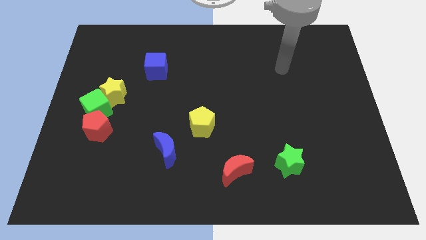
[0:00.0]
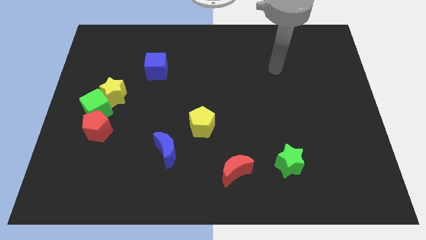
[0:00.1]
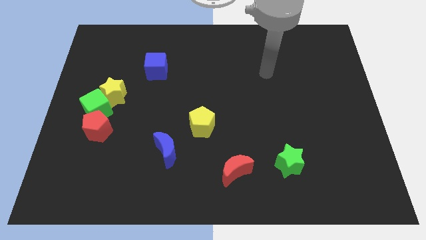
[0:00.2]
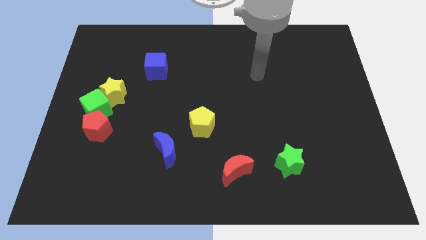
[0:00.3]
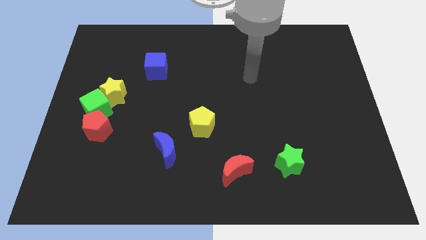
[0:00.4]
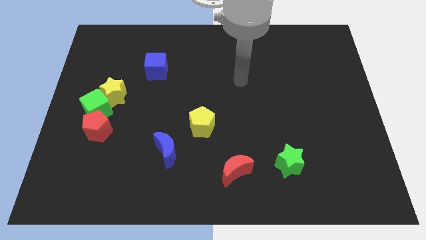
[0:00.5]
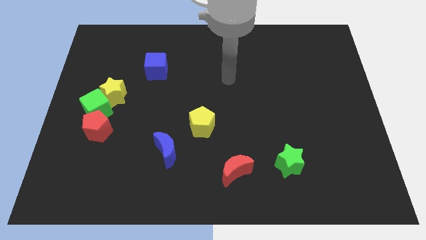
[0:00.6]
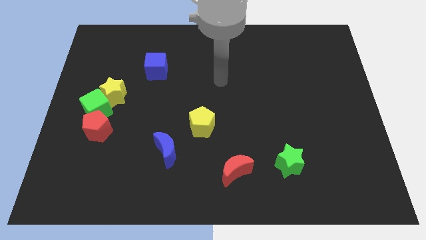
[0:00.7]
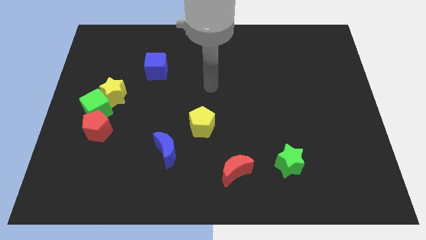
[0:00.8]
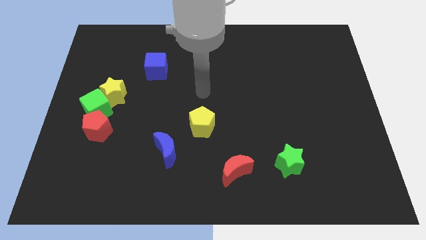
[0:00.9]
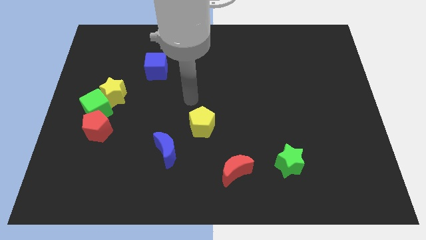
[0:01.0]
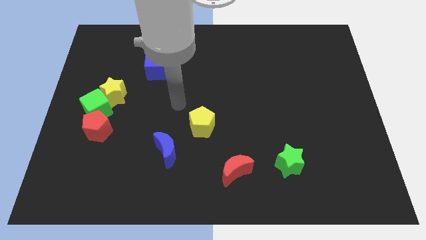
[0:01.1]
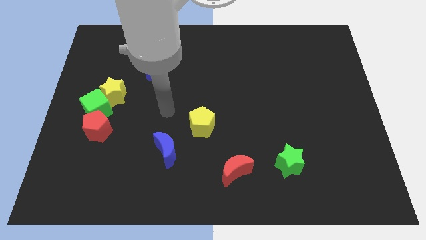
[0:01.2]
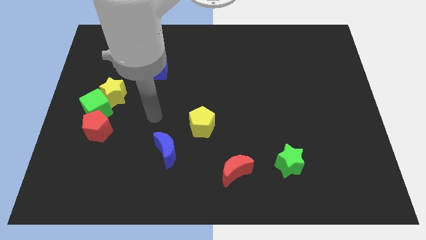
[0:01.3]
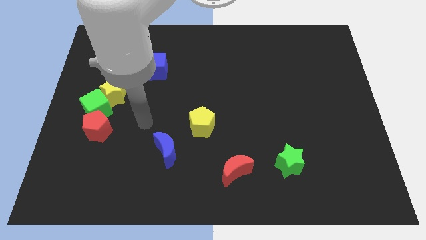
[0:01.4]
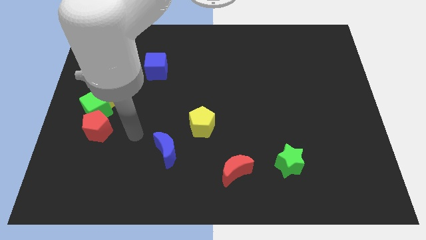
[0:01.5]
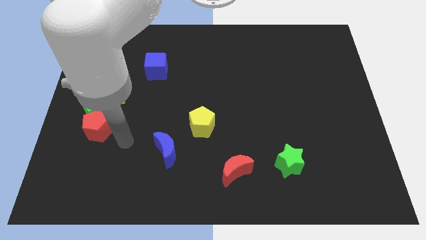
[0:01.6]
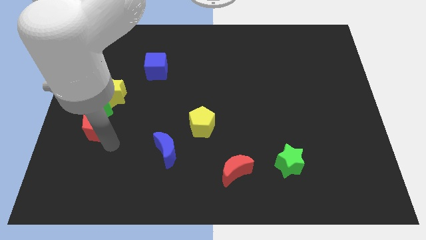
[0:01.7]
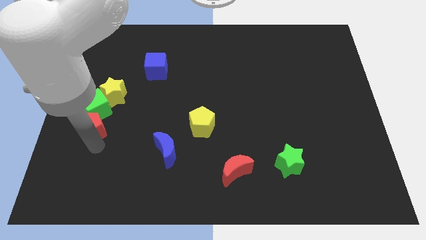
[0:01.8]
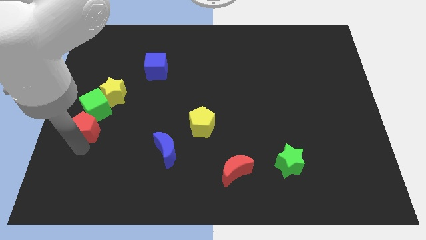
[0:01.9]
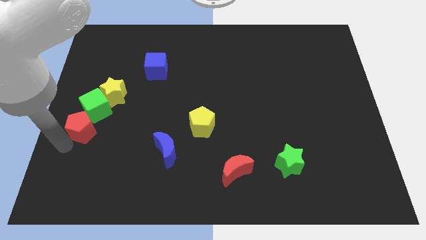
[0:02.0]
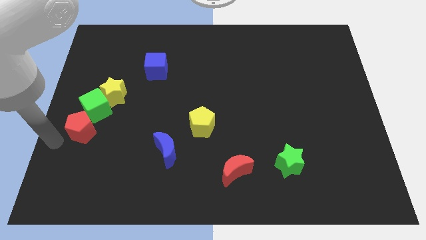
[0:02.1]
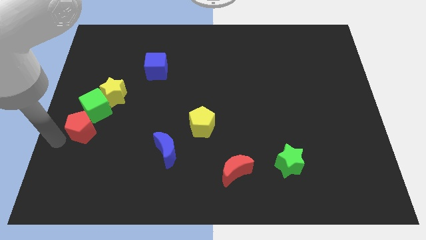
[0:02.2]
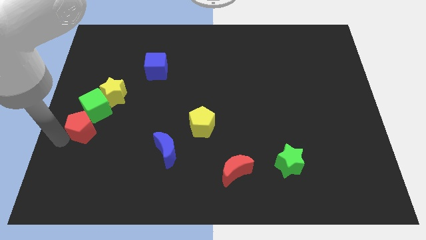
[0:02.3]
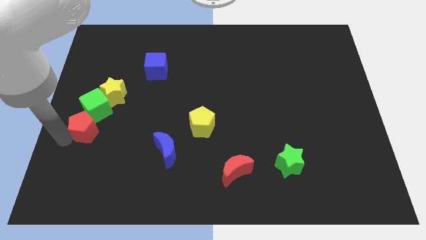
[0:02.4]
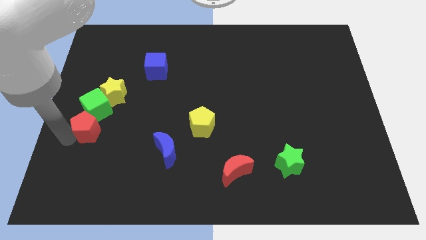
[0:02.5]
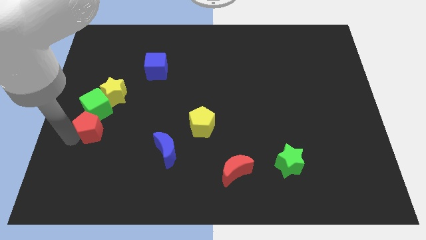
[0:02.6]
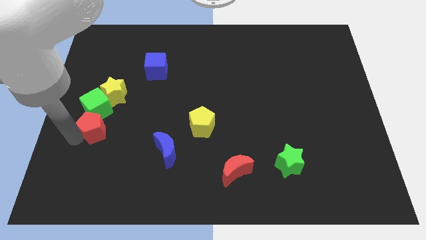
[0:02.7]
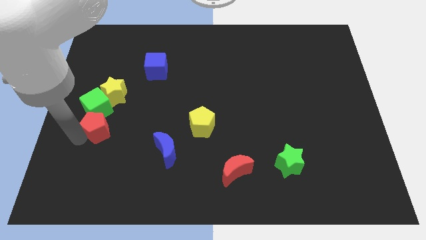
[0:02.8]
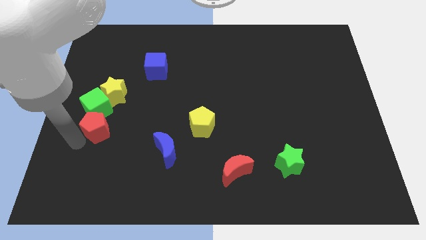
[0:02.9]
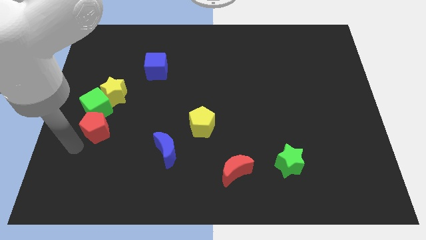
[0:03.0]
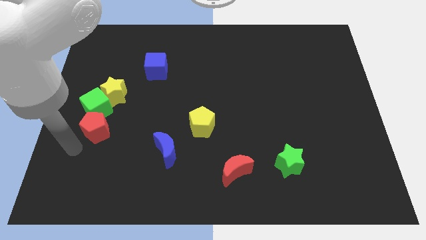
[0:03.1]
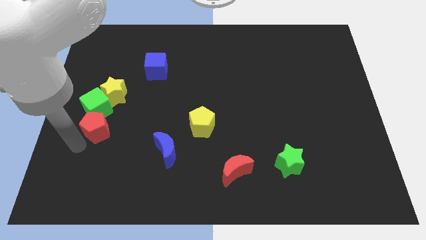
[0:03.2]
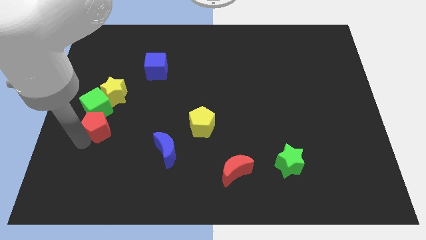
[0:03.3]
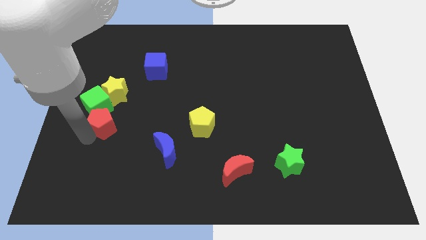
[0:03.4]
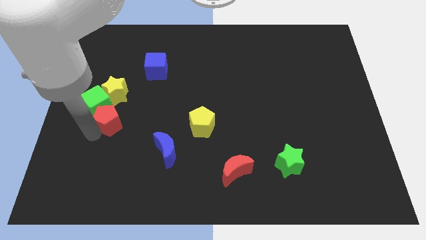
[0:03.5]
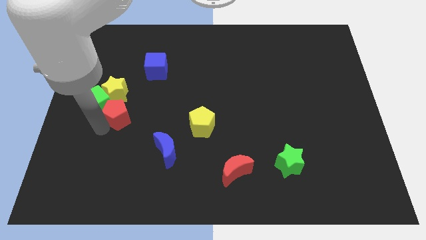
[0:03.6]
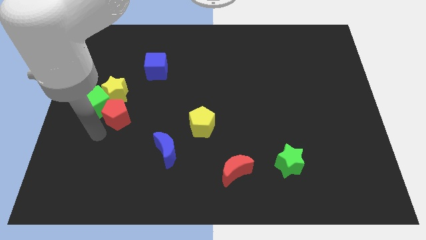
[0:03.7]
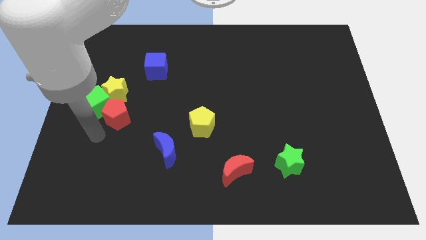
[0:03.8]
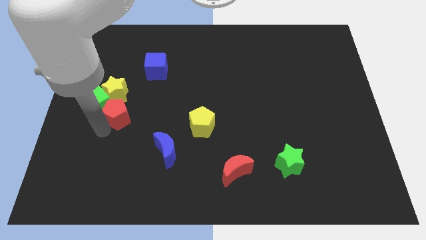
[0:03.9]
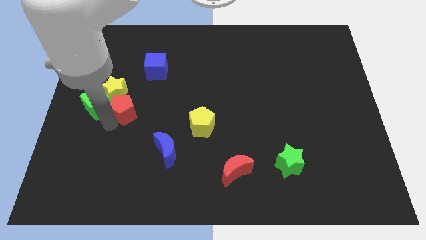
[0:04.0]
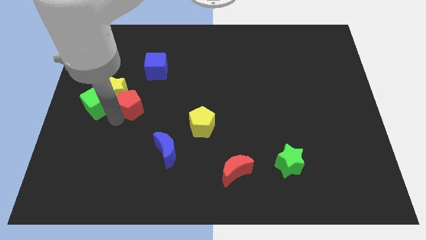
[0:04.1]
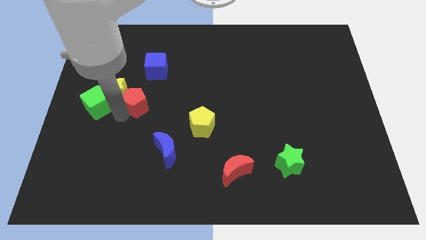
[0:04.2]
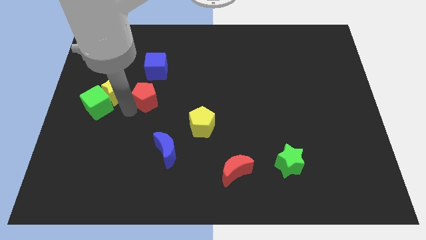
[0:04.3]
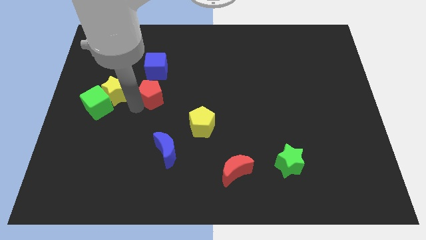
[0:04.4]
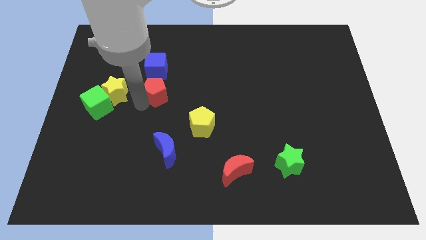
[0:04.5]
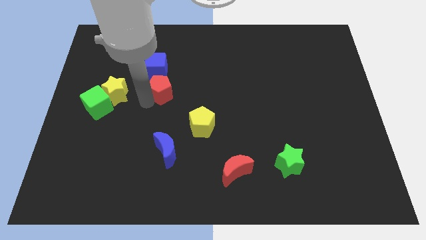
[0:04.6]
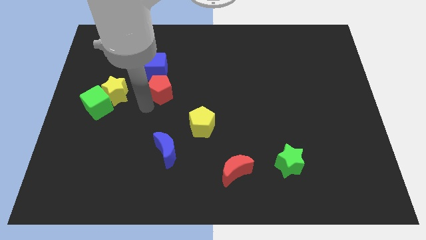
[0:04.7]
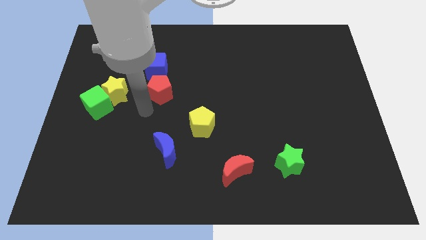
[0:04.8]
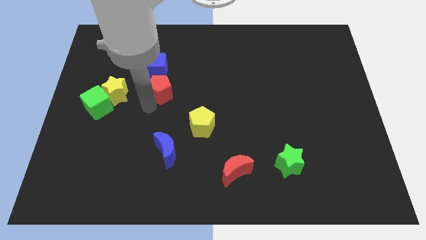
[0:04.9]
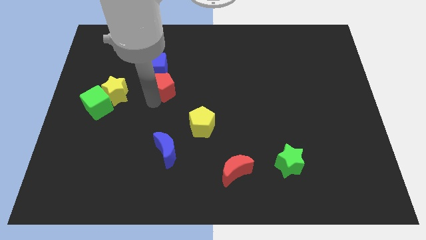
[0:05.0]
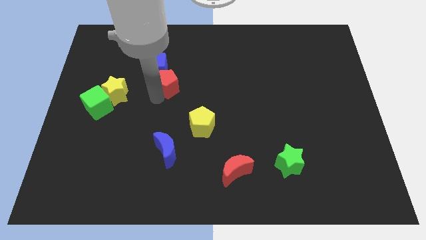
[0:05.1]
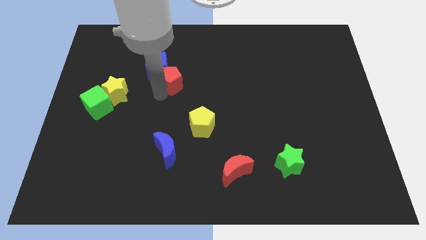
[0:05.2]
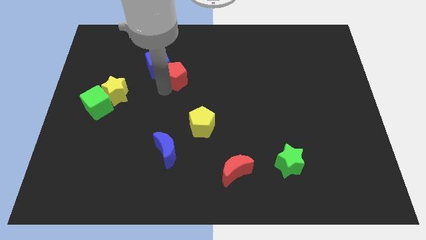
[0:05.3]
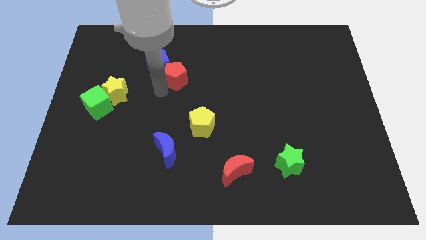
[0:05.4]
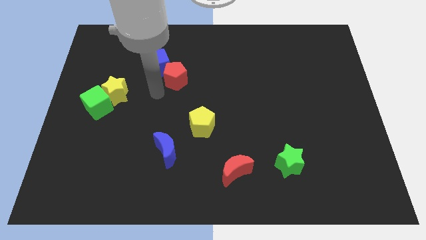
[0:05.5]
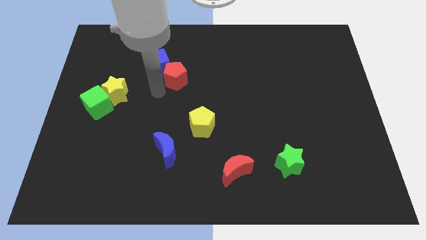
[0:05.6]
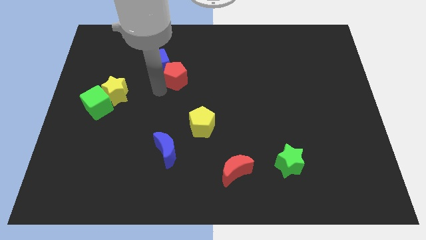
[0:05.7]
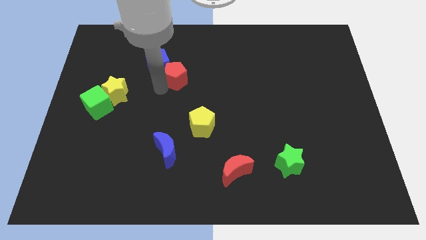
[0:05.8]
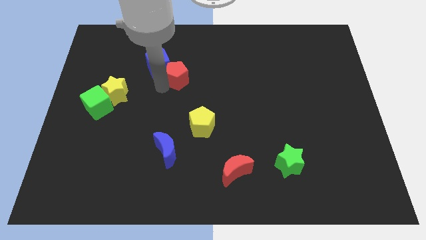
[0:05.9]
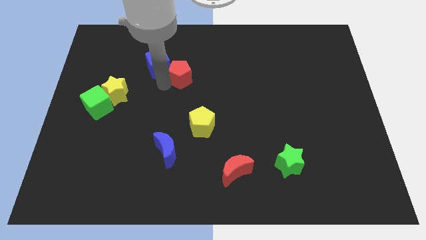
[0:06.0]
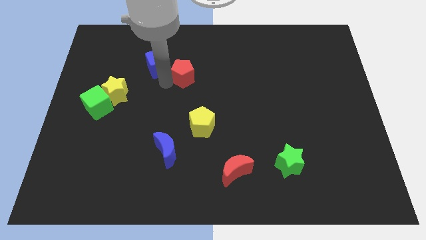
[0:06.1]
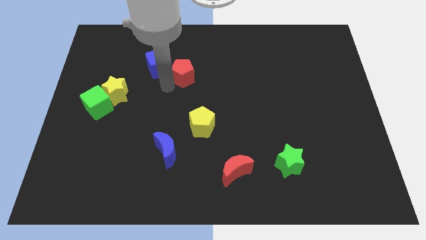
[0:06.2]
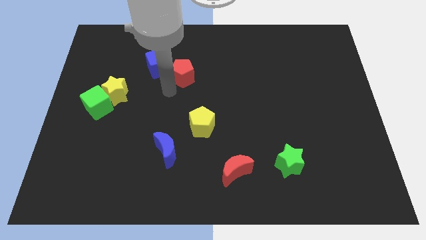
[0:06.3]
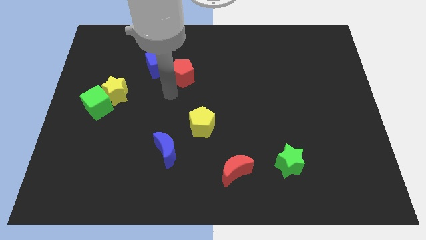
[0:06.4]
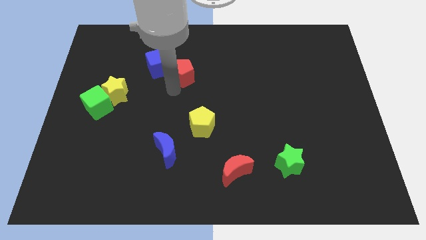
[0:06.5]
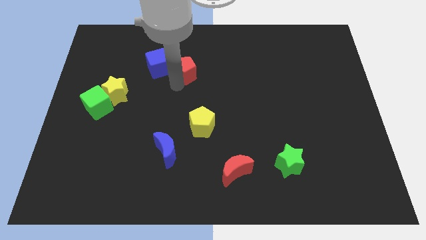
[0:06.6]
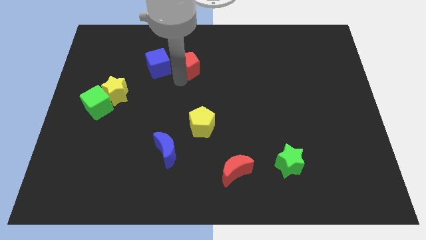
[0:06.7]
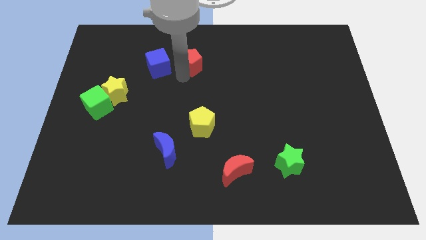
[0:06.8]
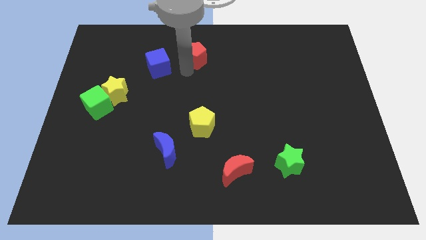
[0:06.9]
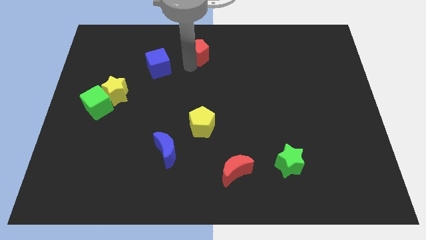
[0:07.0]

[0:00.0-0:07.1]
put the red pentagon to the towards your base
